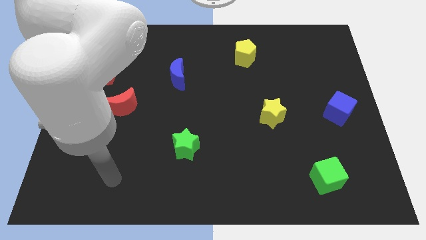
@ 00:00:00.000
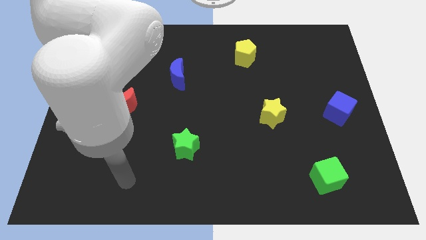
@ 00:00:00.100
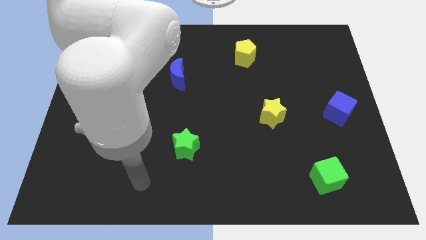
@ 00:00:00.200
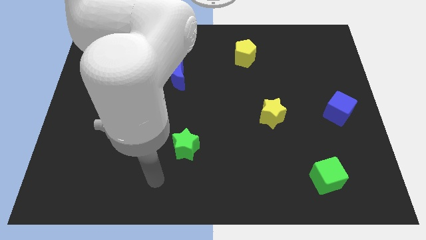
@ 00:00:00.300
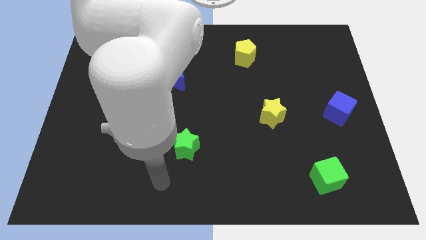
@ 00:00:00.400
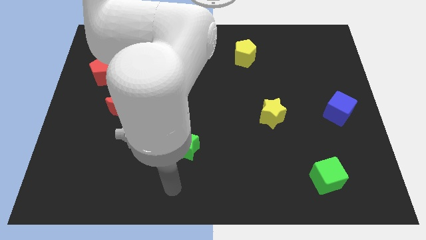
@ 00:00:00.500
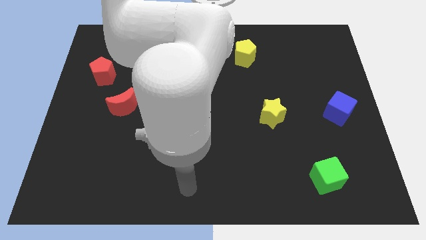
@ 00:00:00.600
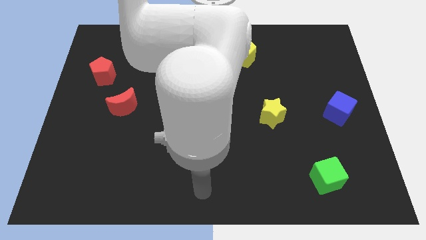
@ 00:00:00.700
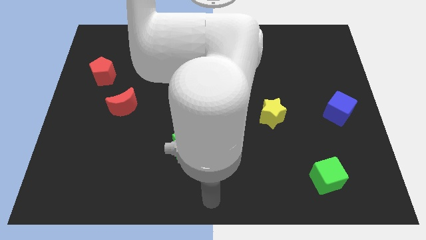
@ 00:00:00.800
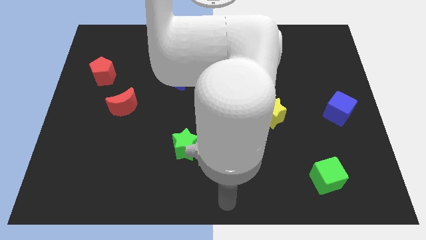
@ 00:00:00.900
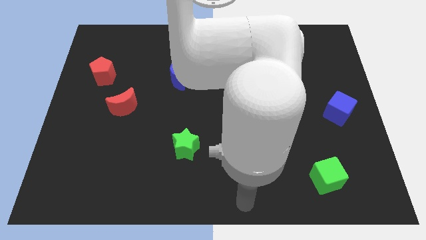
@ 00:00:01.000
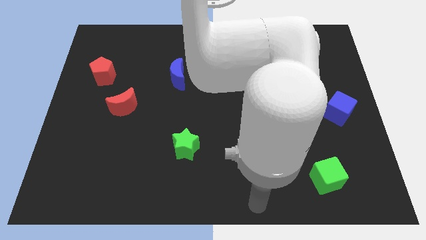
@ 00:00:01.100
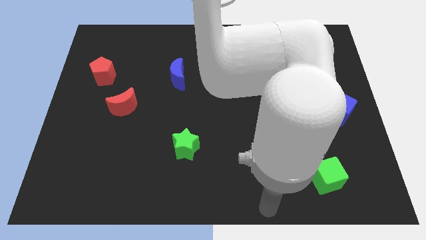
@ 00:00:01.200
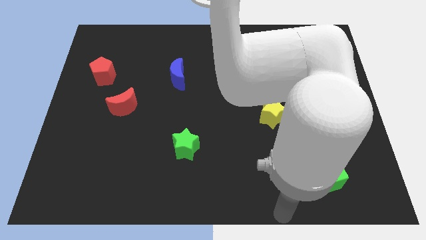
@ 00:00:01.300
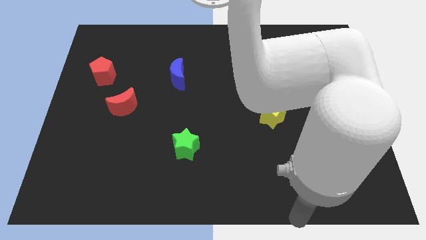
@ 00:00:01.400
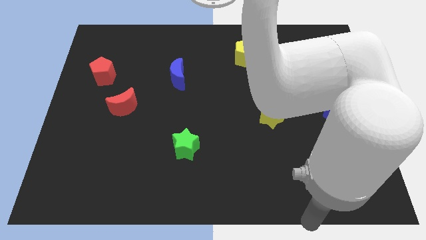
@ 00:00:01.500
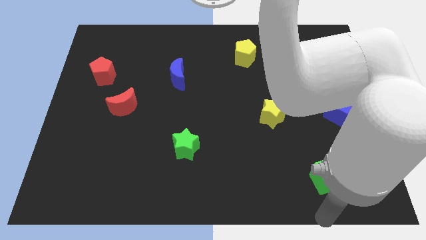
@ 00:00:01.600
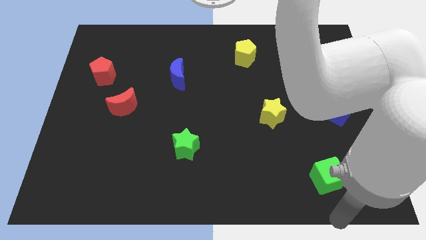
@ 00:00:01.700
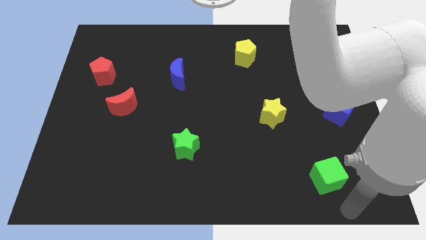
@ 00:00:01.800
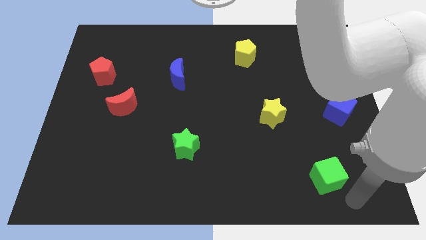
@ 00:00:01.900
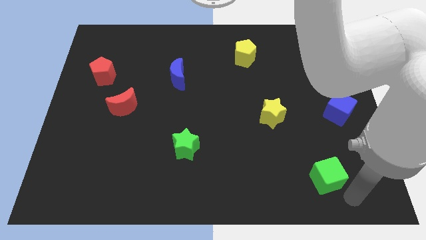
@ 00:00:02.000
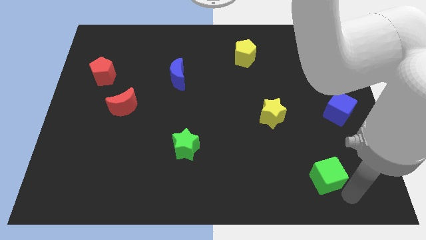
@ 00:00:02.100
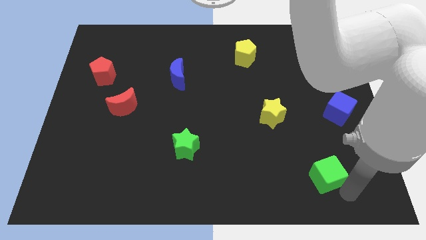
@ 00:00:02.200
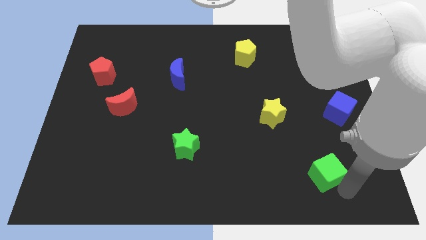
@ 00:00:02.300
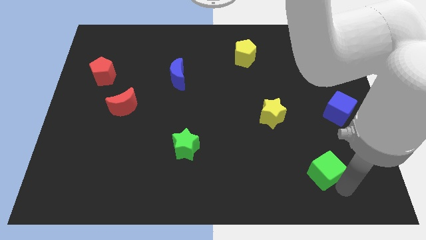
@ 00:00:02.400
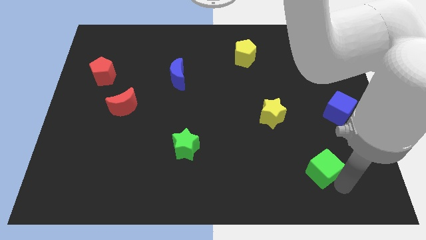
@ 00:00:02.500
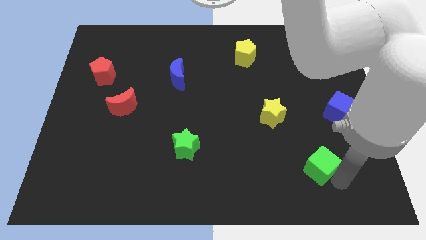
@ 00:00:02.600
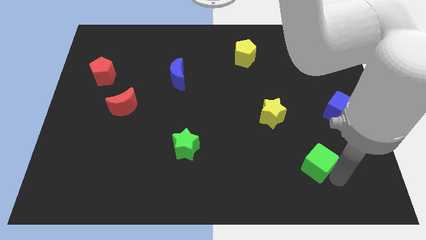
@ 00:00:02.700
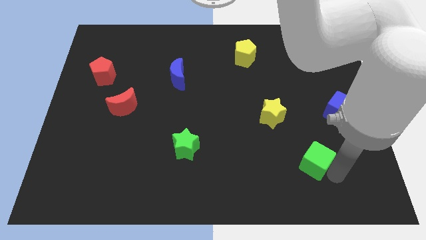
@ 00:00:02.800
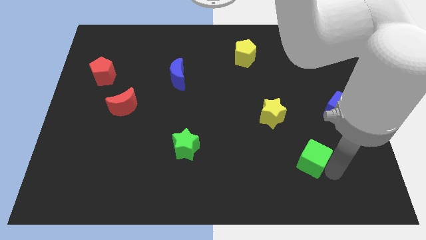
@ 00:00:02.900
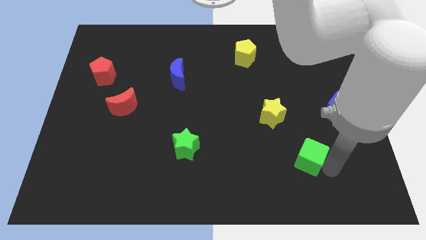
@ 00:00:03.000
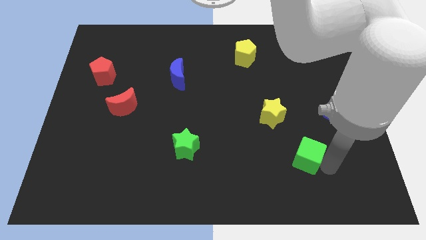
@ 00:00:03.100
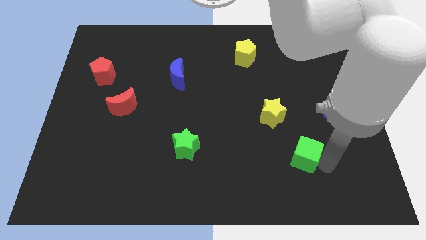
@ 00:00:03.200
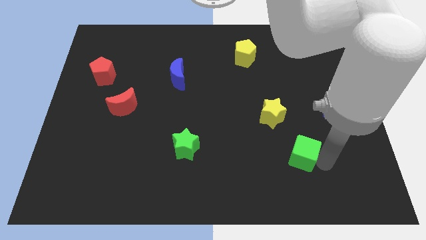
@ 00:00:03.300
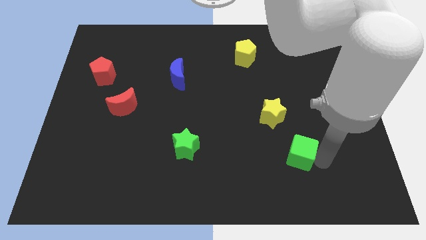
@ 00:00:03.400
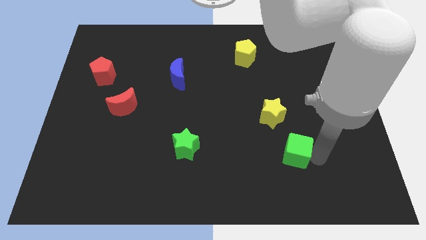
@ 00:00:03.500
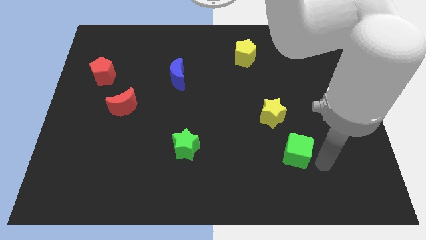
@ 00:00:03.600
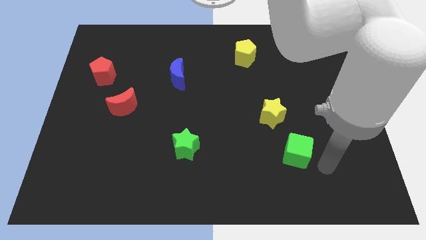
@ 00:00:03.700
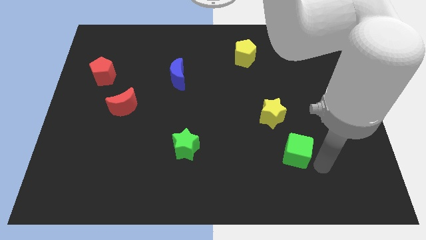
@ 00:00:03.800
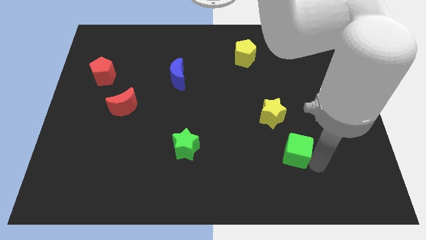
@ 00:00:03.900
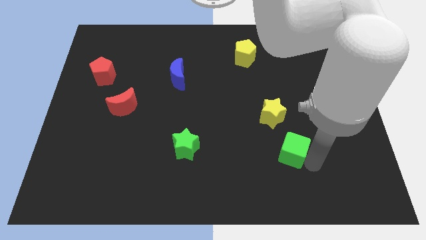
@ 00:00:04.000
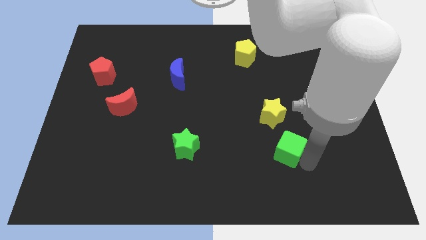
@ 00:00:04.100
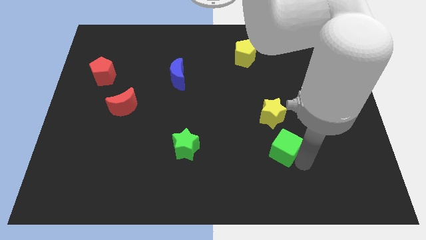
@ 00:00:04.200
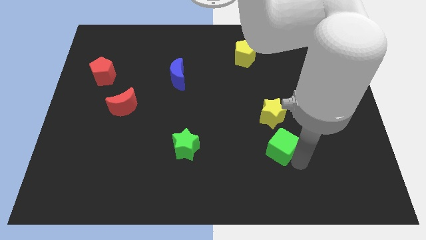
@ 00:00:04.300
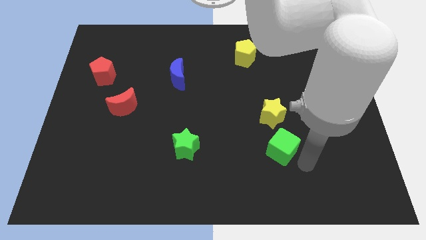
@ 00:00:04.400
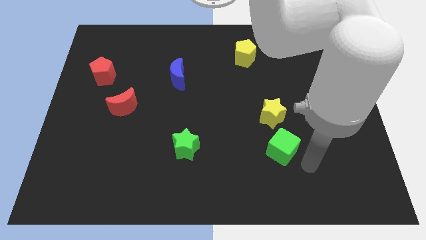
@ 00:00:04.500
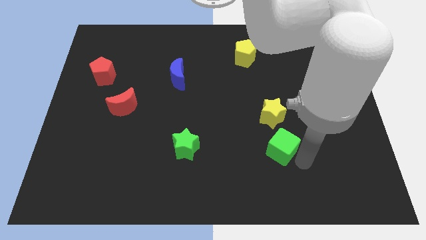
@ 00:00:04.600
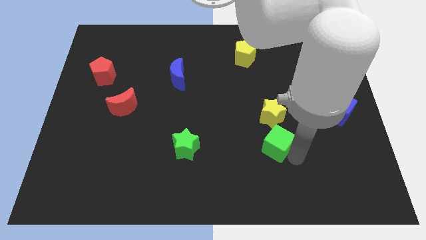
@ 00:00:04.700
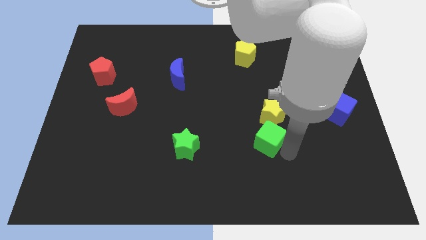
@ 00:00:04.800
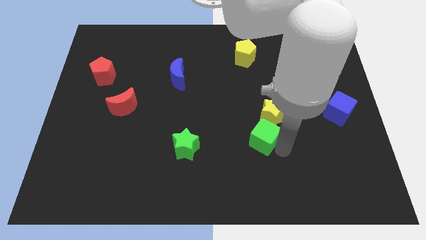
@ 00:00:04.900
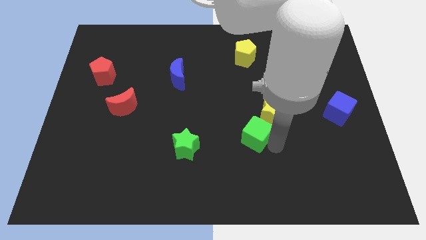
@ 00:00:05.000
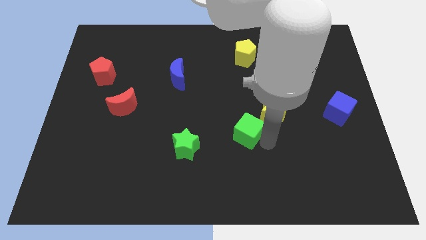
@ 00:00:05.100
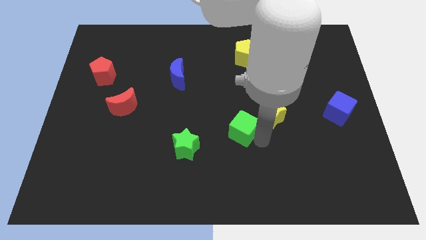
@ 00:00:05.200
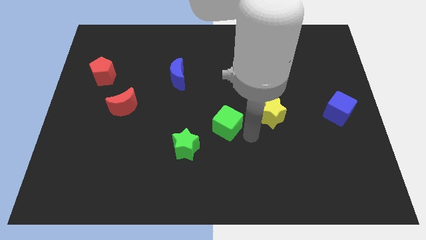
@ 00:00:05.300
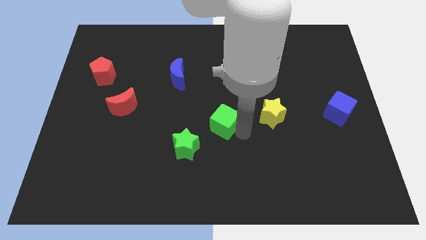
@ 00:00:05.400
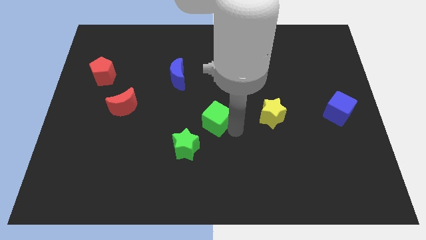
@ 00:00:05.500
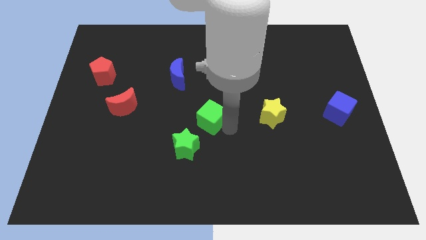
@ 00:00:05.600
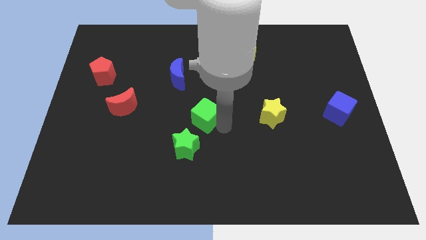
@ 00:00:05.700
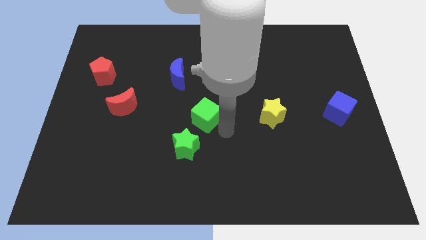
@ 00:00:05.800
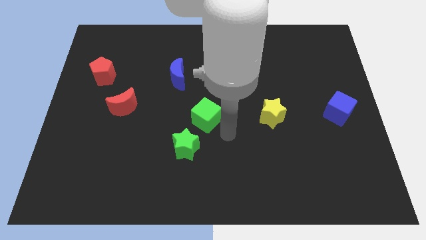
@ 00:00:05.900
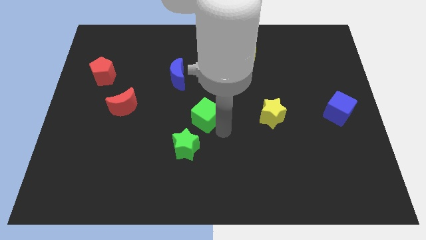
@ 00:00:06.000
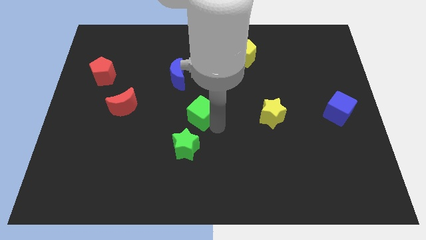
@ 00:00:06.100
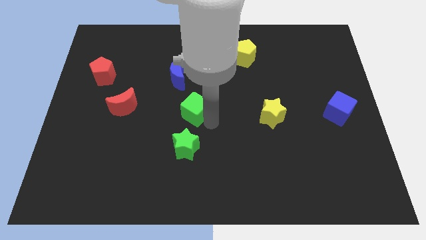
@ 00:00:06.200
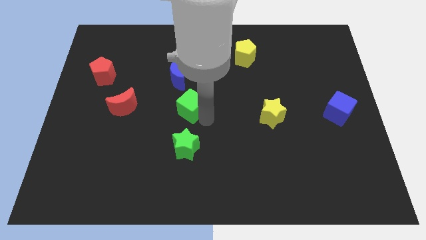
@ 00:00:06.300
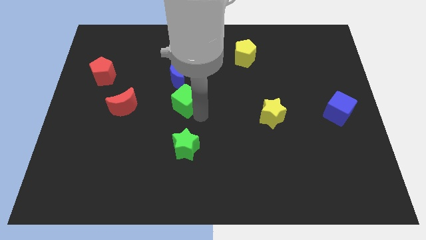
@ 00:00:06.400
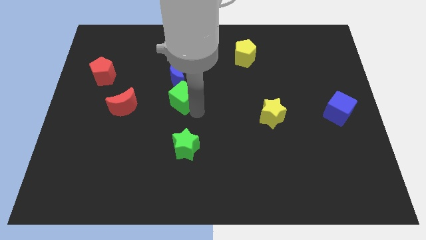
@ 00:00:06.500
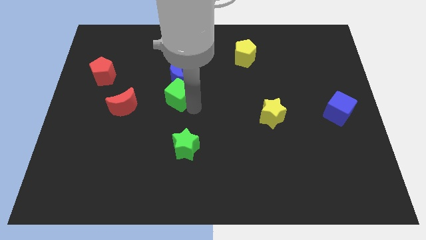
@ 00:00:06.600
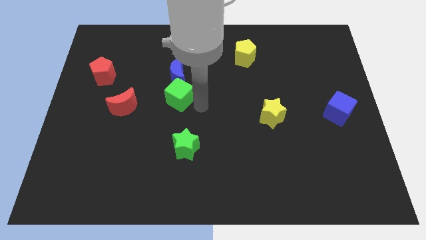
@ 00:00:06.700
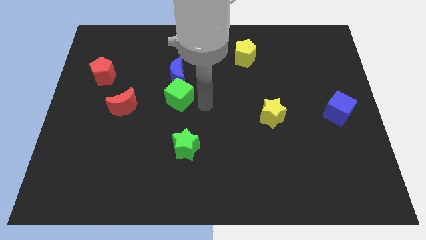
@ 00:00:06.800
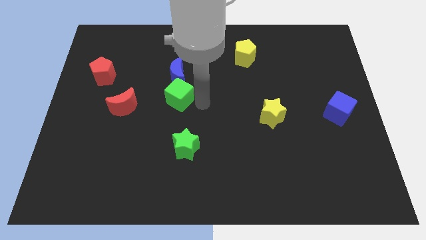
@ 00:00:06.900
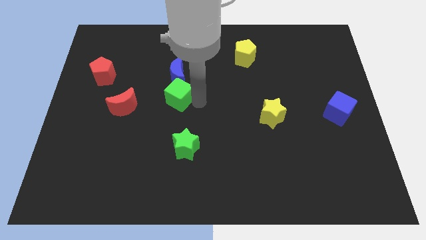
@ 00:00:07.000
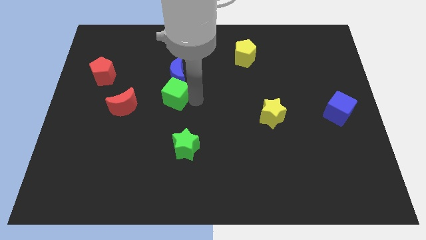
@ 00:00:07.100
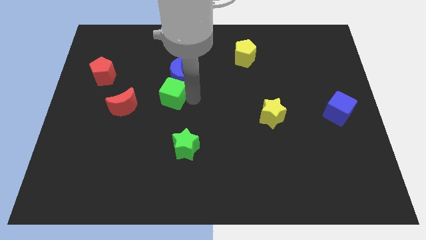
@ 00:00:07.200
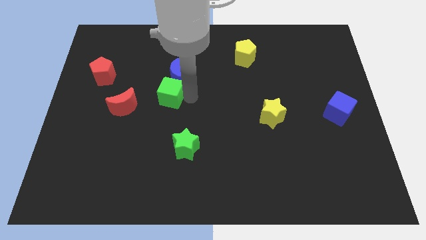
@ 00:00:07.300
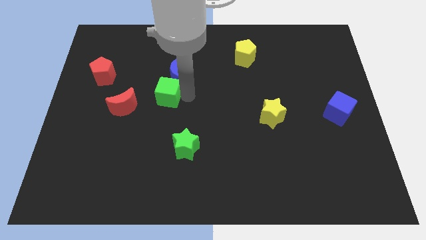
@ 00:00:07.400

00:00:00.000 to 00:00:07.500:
move the green cube to the top right side of the red moon
